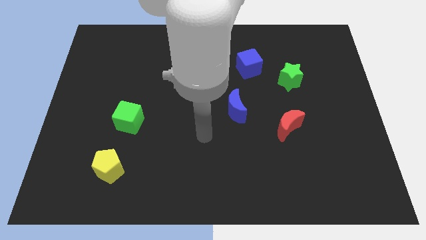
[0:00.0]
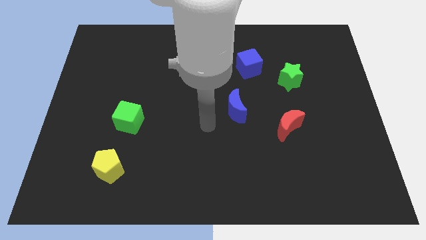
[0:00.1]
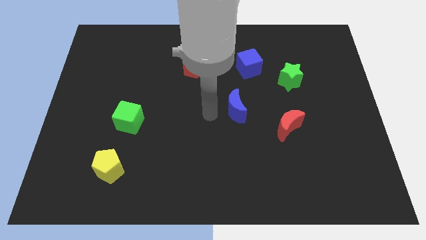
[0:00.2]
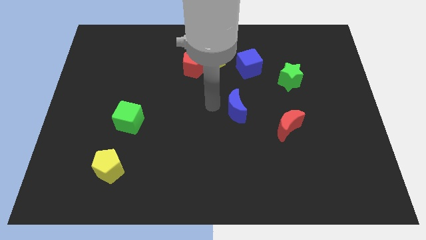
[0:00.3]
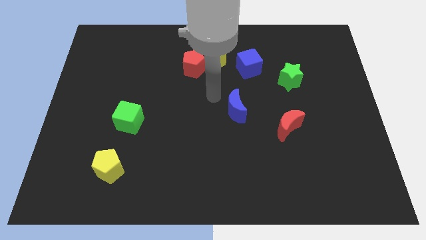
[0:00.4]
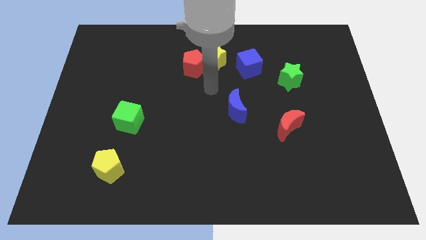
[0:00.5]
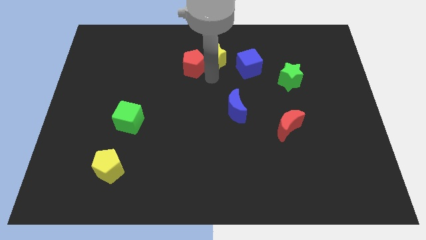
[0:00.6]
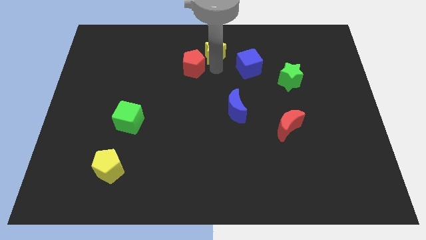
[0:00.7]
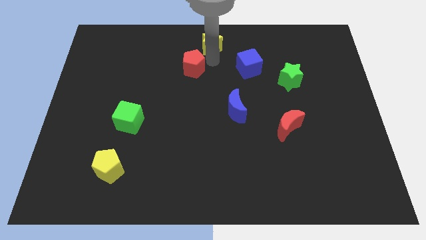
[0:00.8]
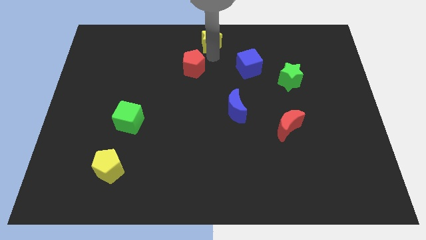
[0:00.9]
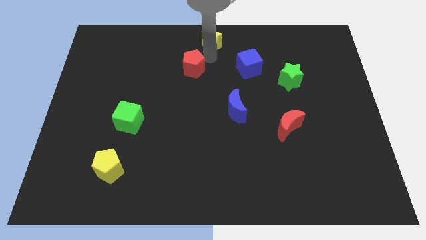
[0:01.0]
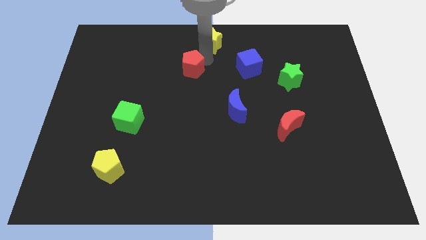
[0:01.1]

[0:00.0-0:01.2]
pull the red pentagon apart from the yellow star

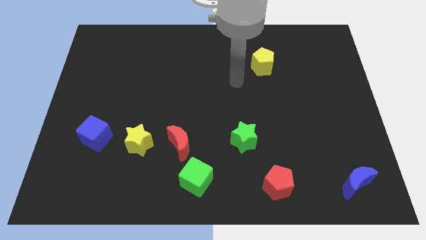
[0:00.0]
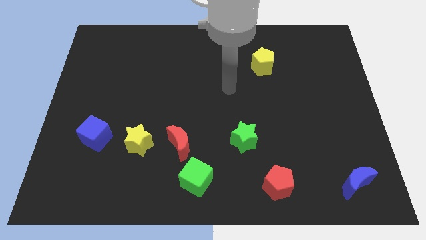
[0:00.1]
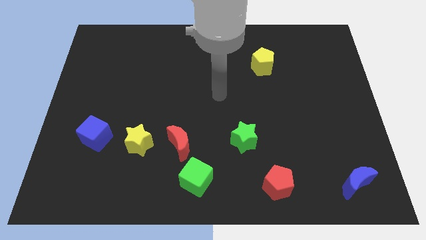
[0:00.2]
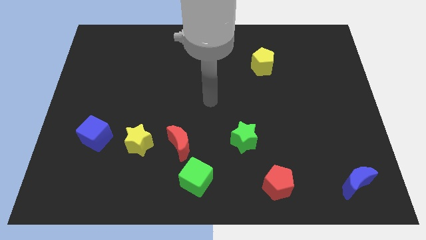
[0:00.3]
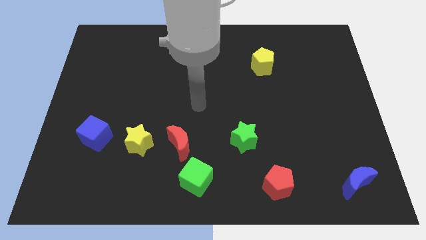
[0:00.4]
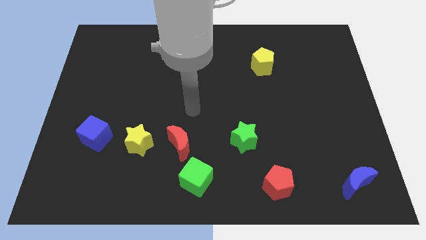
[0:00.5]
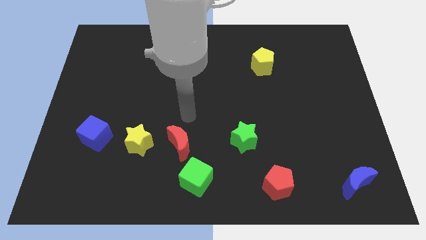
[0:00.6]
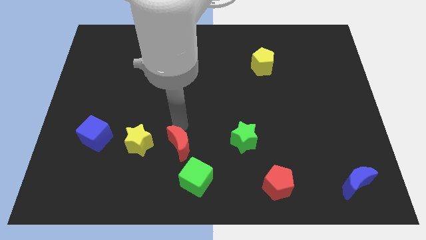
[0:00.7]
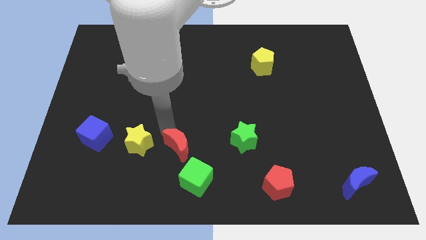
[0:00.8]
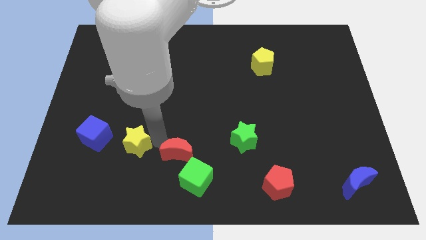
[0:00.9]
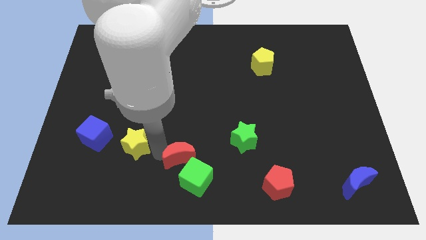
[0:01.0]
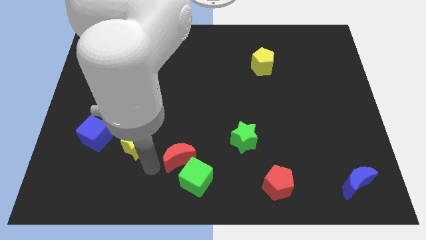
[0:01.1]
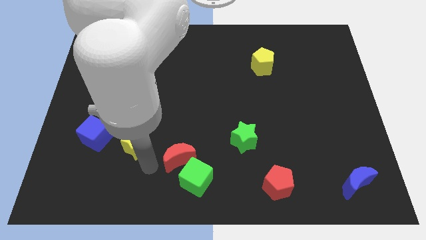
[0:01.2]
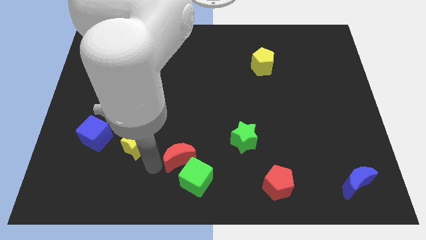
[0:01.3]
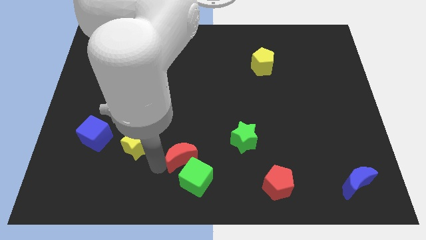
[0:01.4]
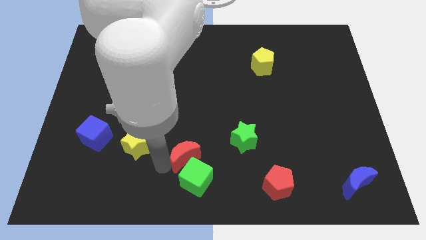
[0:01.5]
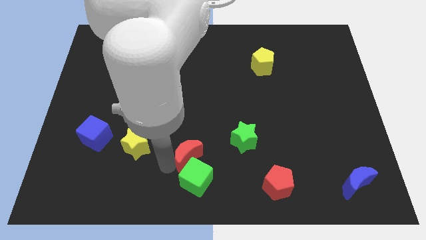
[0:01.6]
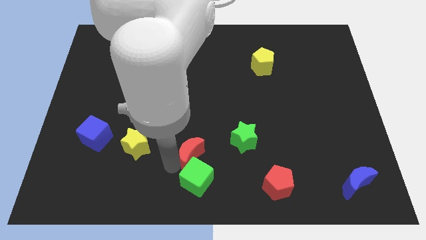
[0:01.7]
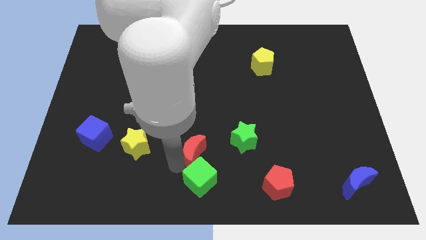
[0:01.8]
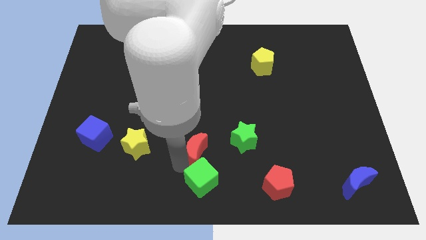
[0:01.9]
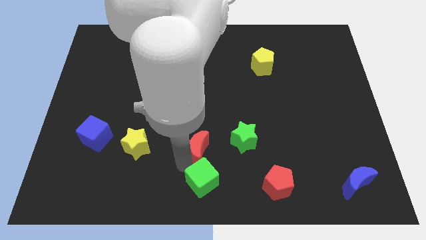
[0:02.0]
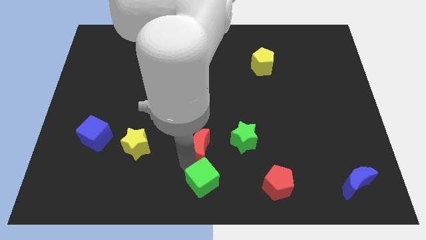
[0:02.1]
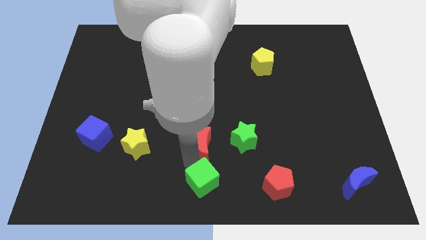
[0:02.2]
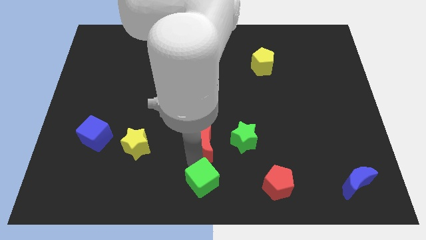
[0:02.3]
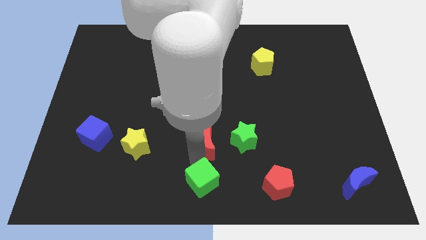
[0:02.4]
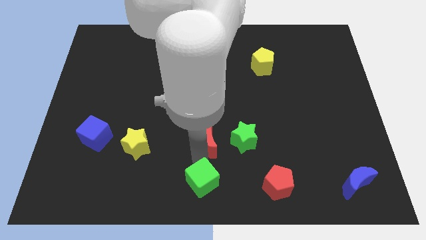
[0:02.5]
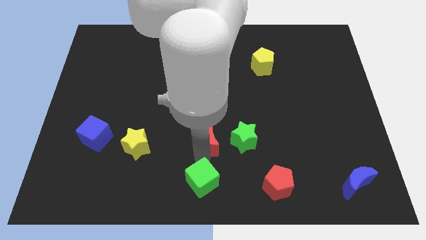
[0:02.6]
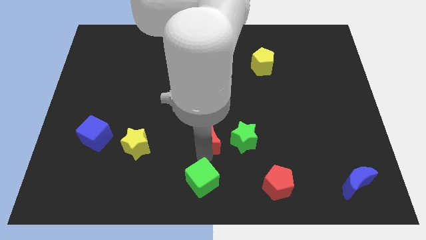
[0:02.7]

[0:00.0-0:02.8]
move the red moon away from the yellow star and green cube

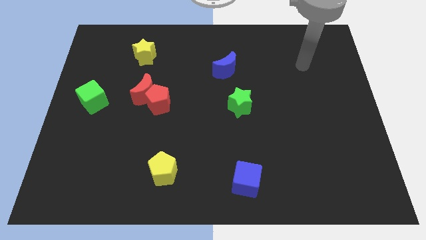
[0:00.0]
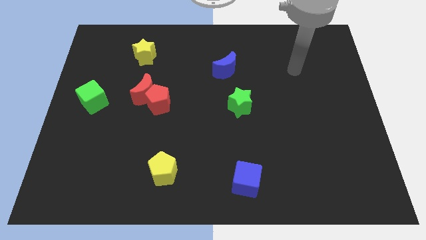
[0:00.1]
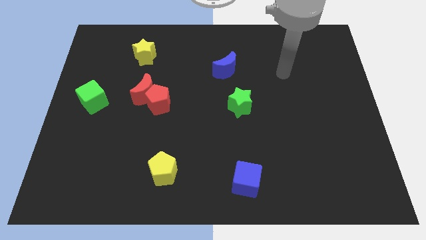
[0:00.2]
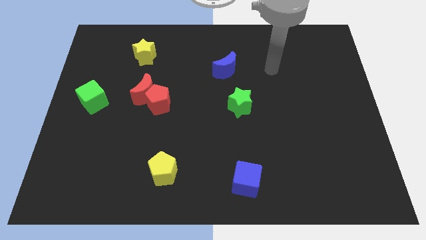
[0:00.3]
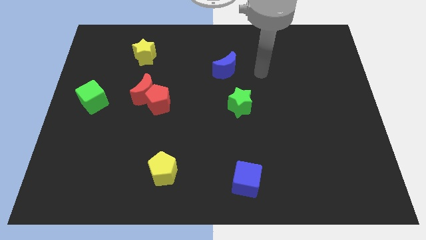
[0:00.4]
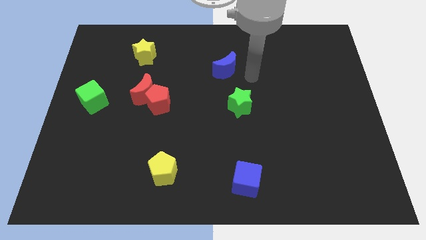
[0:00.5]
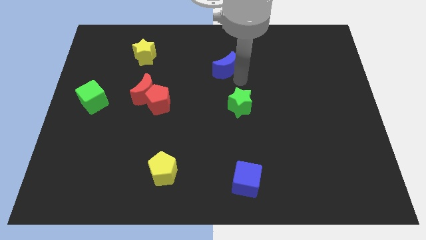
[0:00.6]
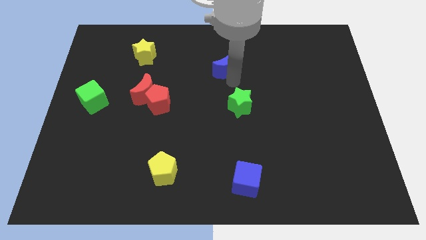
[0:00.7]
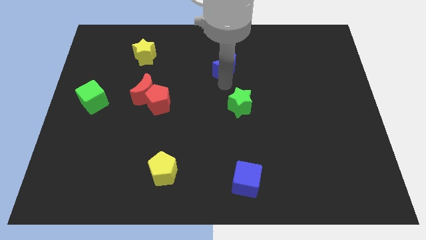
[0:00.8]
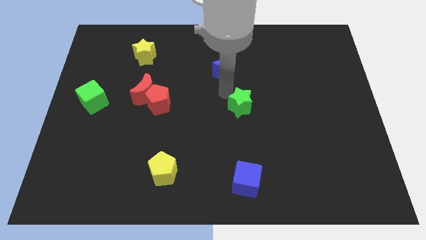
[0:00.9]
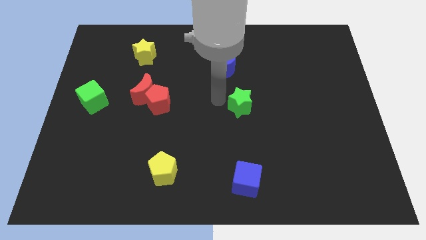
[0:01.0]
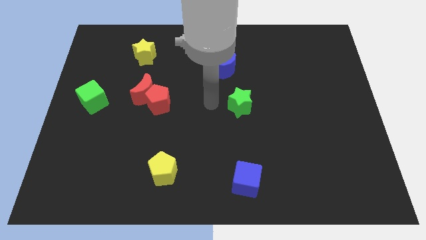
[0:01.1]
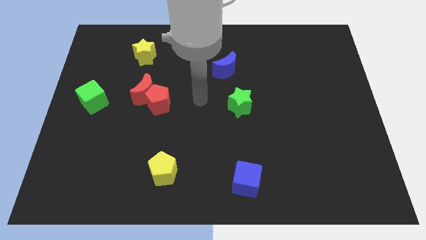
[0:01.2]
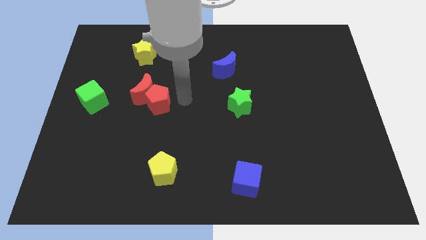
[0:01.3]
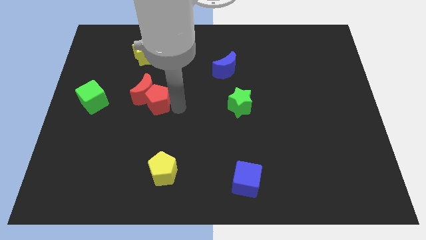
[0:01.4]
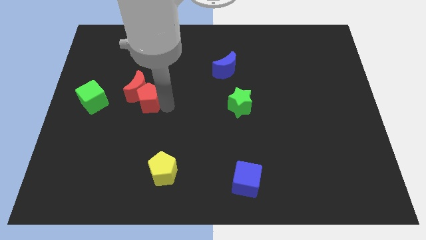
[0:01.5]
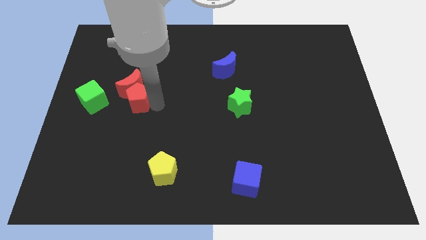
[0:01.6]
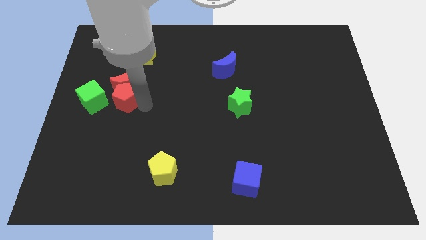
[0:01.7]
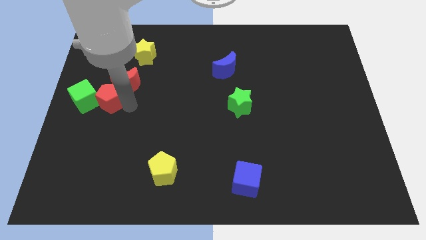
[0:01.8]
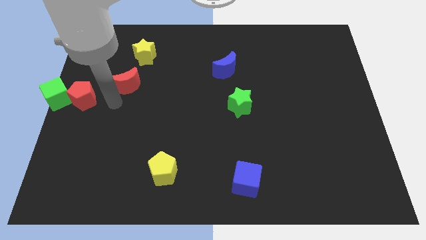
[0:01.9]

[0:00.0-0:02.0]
separate the red moon from the red pentagon

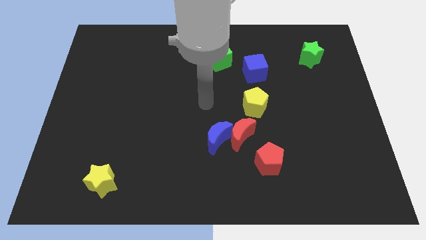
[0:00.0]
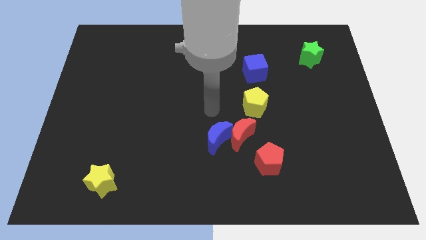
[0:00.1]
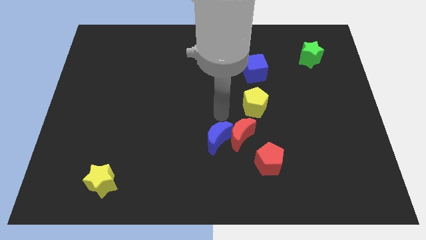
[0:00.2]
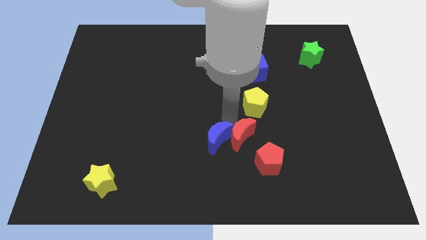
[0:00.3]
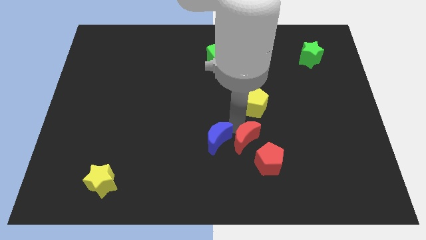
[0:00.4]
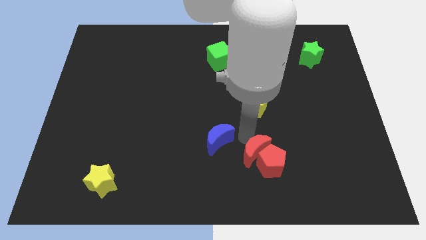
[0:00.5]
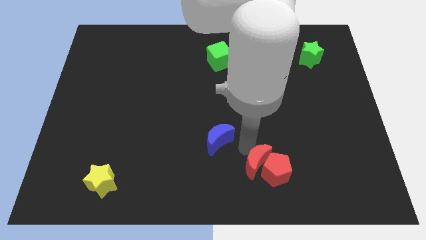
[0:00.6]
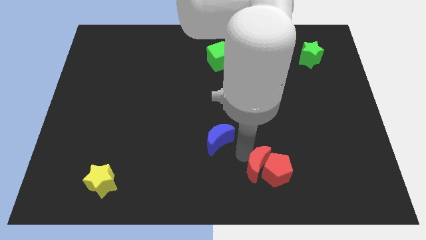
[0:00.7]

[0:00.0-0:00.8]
pull the blue moon apart from the red moon

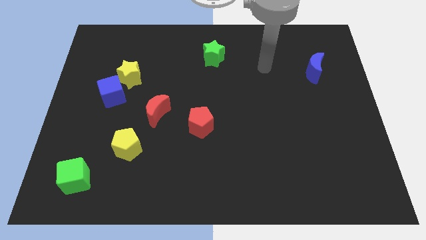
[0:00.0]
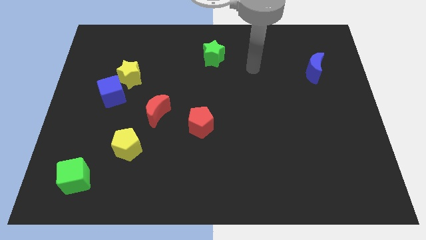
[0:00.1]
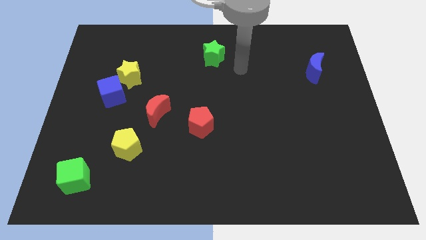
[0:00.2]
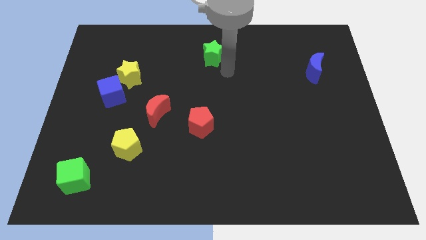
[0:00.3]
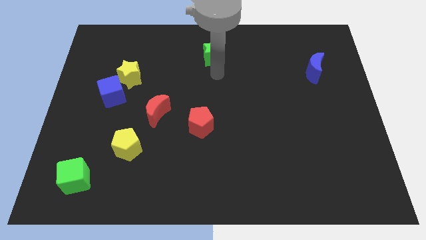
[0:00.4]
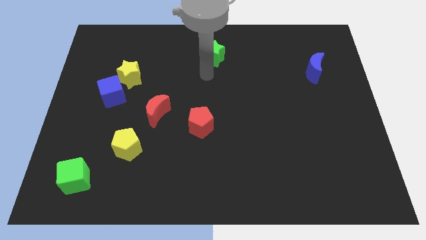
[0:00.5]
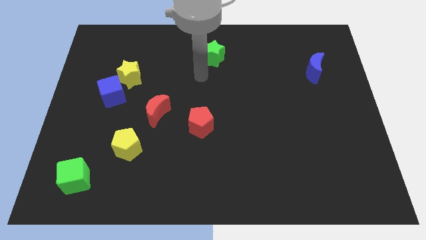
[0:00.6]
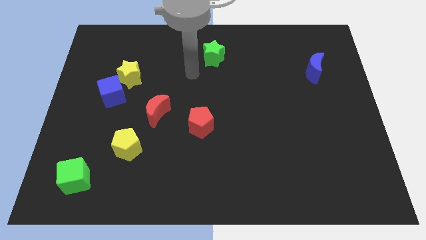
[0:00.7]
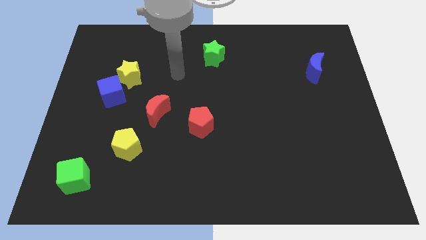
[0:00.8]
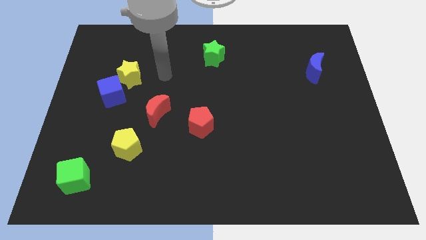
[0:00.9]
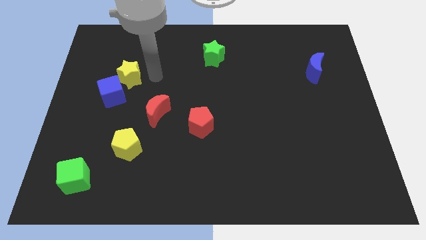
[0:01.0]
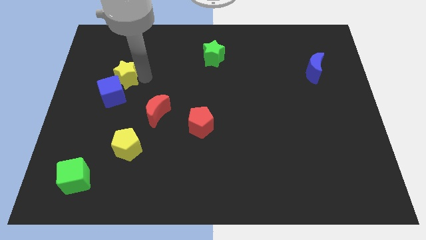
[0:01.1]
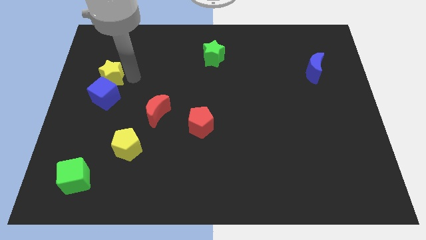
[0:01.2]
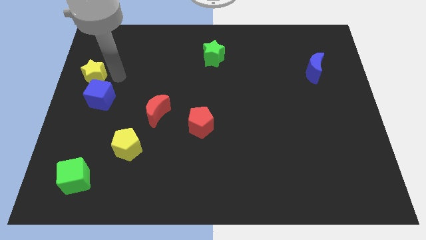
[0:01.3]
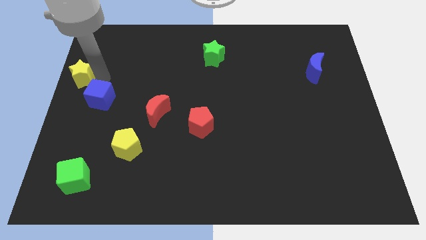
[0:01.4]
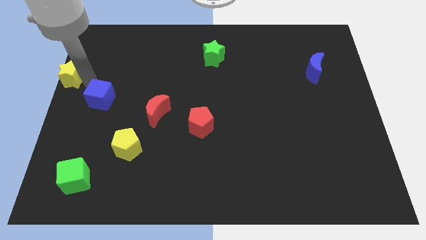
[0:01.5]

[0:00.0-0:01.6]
pull the blue cube apart from the yellow star

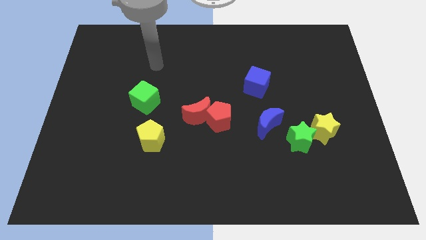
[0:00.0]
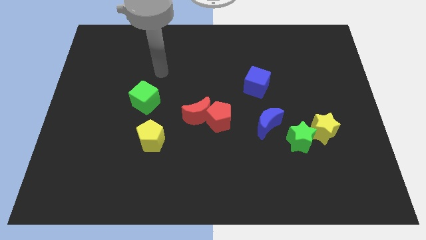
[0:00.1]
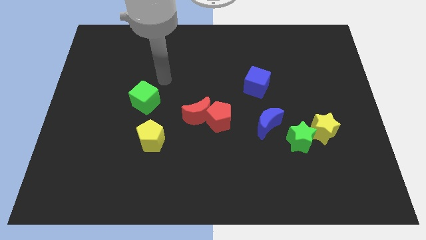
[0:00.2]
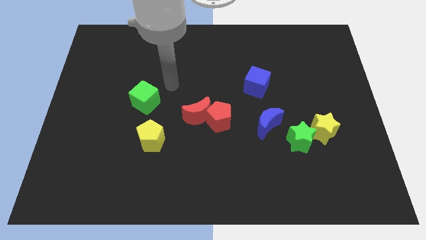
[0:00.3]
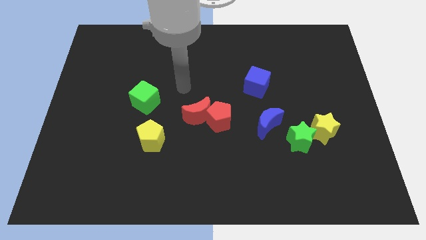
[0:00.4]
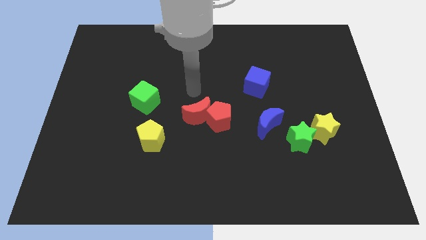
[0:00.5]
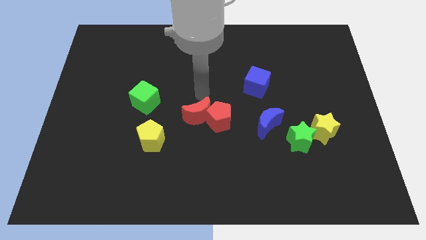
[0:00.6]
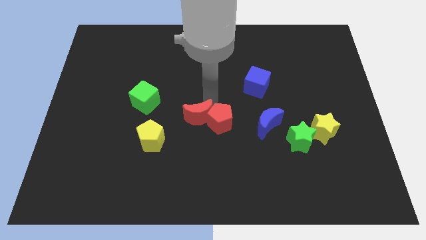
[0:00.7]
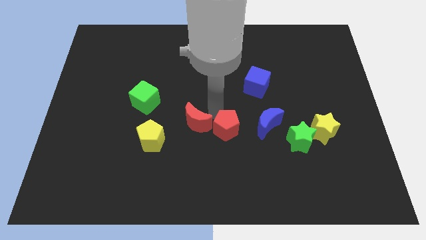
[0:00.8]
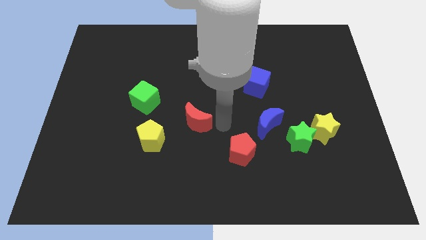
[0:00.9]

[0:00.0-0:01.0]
pull the red moon apart from the red pentagon
